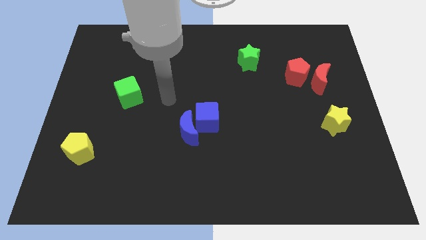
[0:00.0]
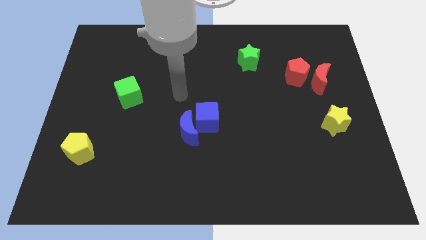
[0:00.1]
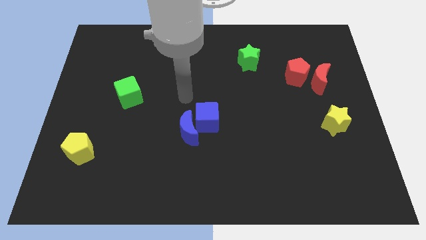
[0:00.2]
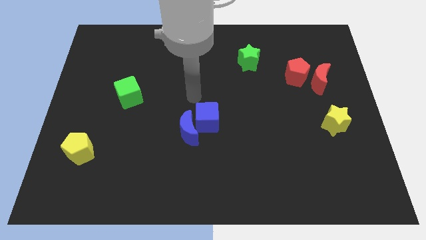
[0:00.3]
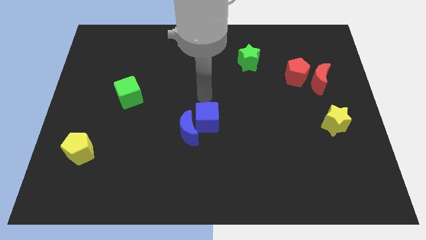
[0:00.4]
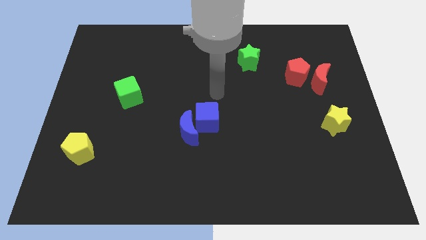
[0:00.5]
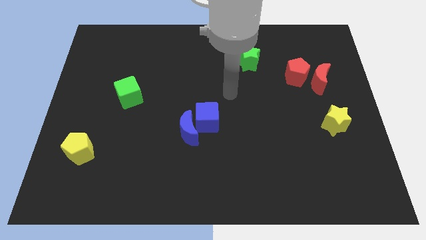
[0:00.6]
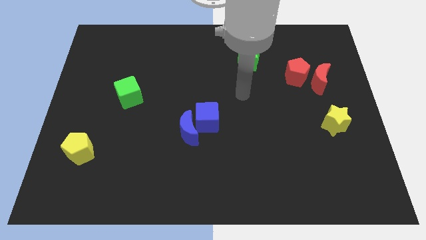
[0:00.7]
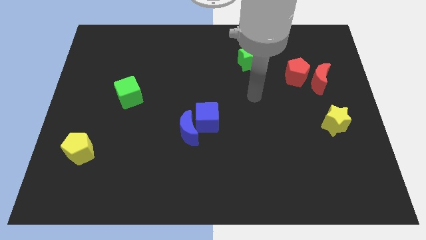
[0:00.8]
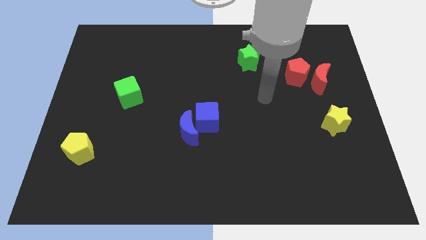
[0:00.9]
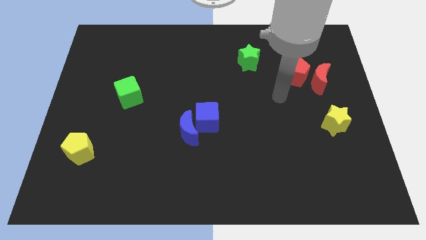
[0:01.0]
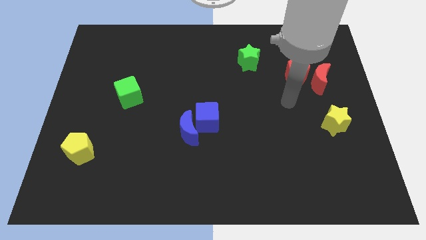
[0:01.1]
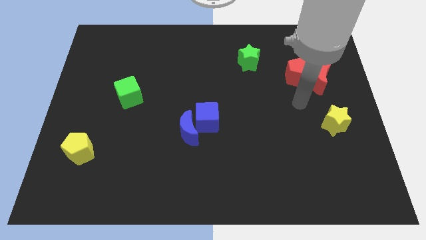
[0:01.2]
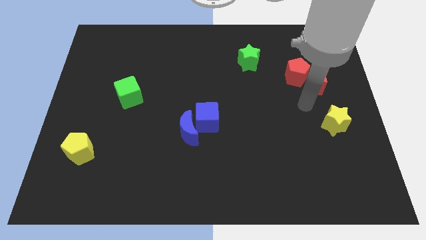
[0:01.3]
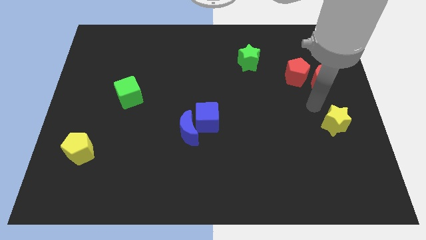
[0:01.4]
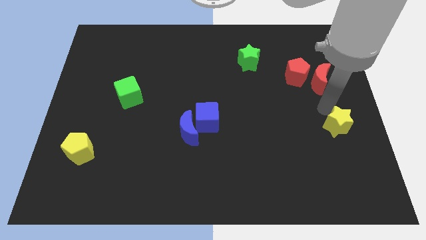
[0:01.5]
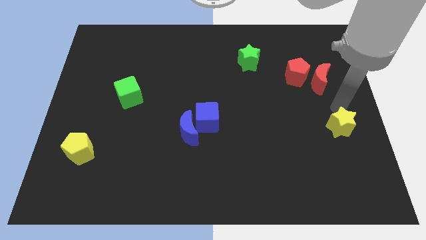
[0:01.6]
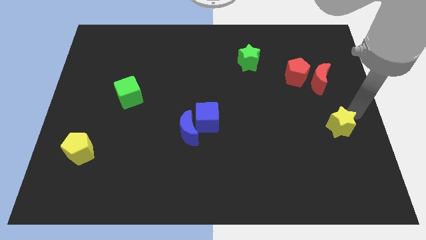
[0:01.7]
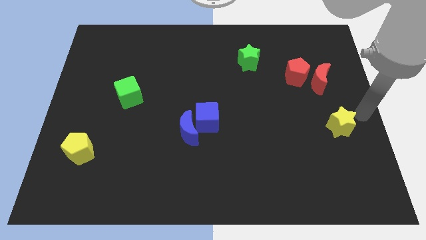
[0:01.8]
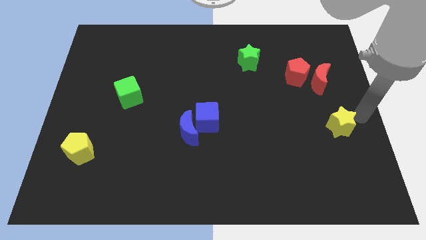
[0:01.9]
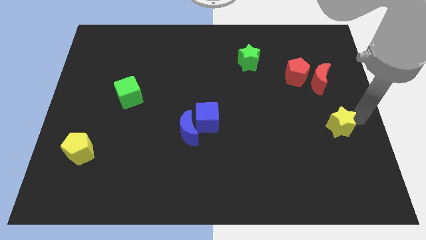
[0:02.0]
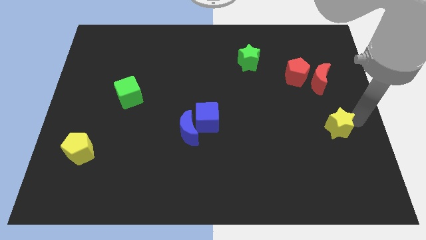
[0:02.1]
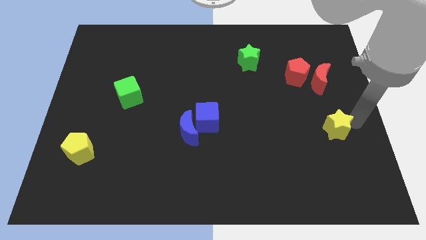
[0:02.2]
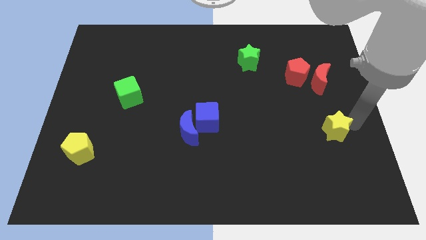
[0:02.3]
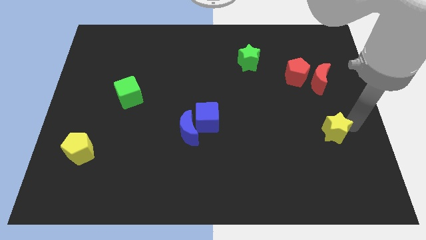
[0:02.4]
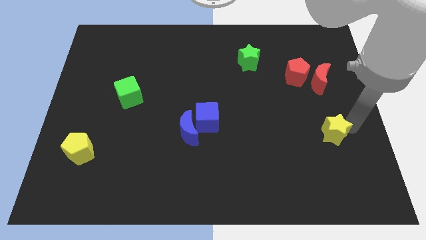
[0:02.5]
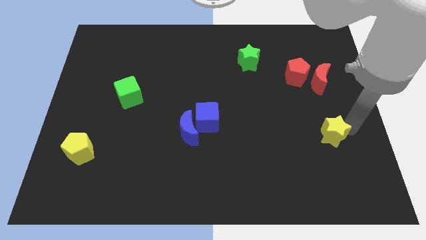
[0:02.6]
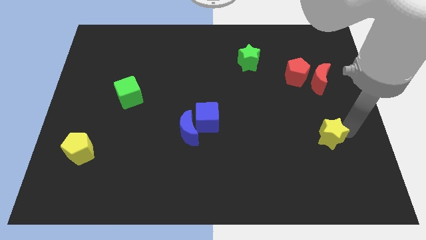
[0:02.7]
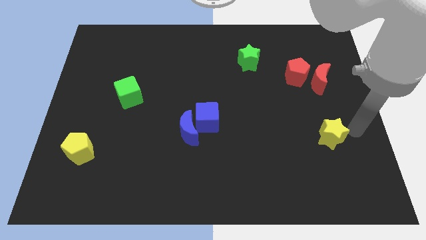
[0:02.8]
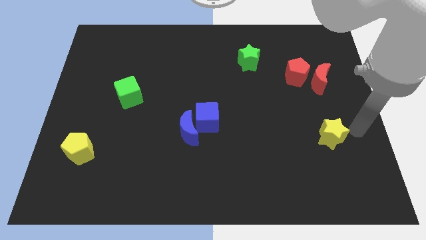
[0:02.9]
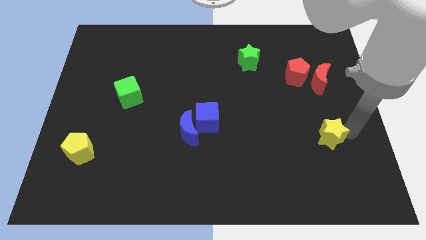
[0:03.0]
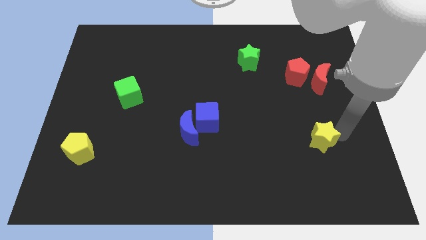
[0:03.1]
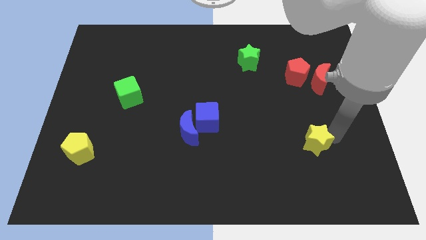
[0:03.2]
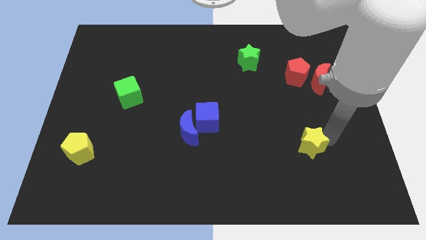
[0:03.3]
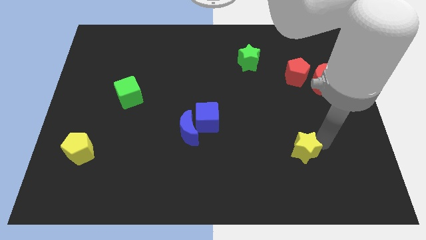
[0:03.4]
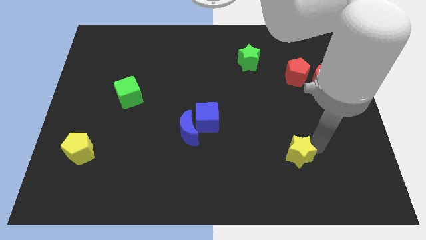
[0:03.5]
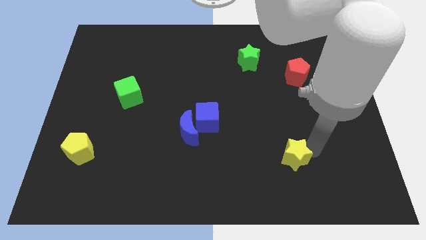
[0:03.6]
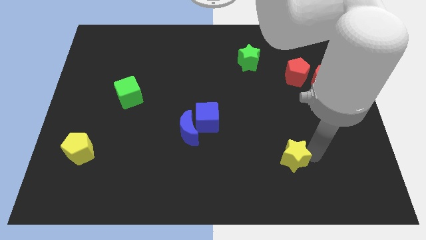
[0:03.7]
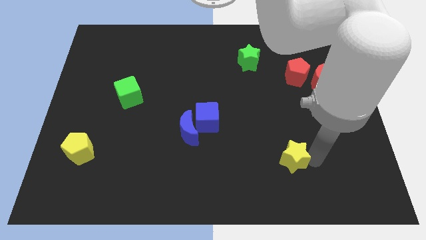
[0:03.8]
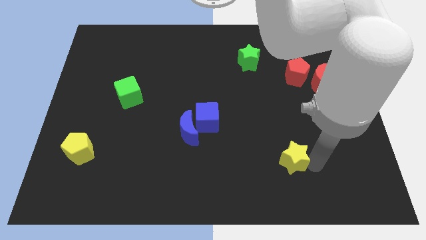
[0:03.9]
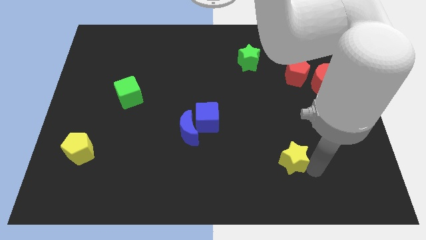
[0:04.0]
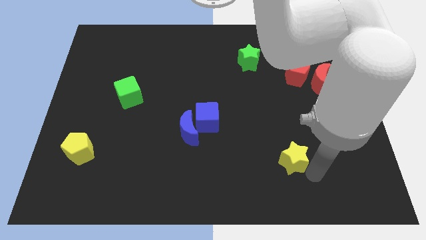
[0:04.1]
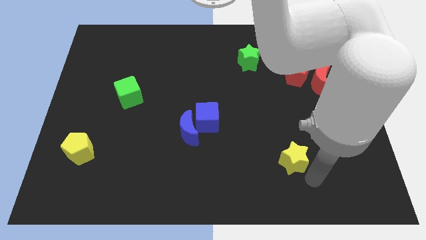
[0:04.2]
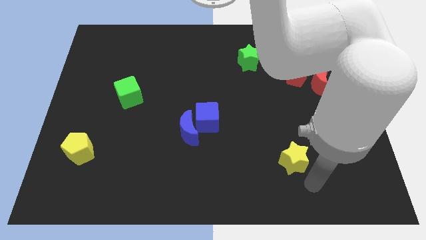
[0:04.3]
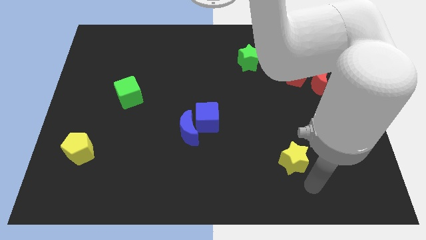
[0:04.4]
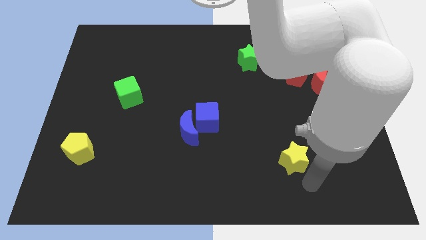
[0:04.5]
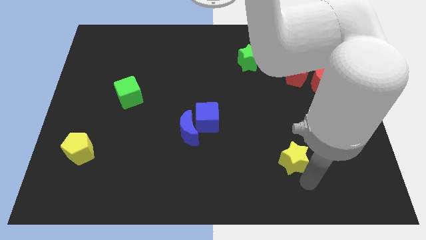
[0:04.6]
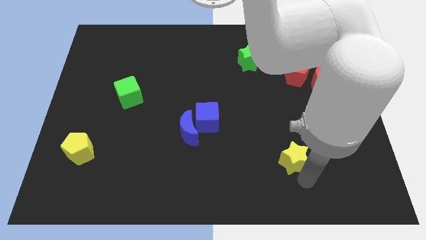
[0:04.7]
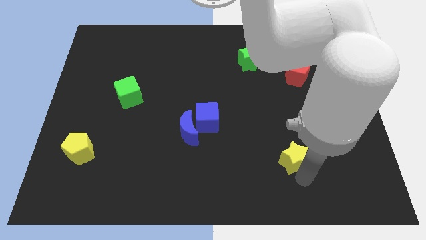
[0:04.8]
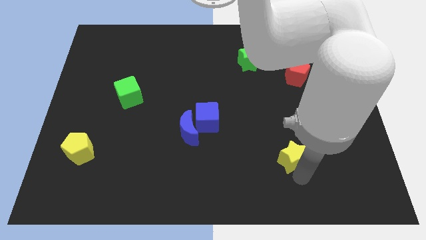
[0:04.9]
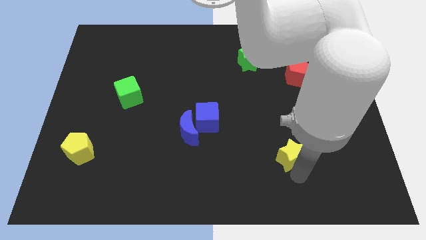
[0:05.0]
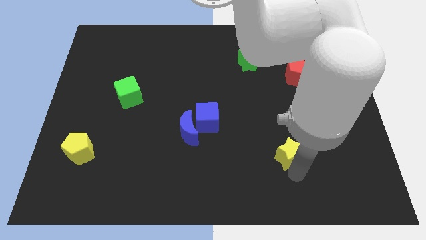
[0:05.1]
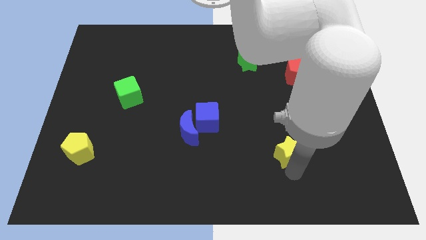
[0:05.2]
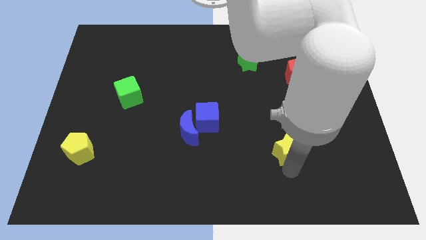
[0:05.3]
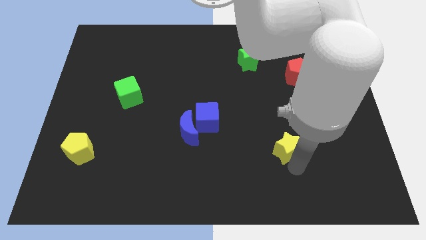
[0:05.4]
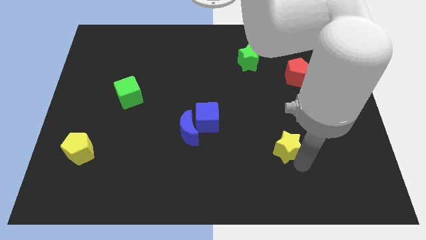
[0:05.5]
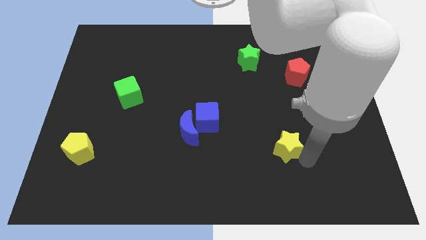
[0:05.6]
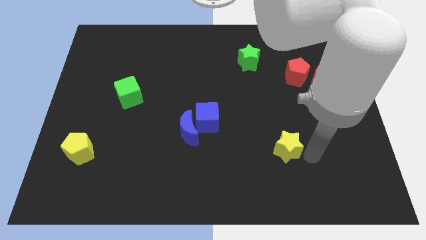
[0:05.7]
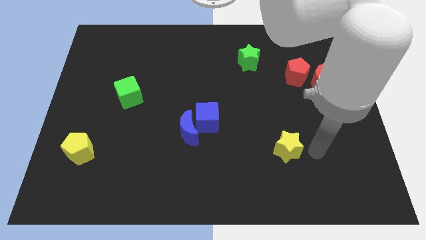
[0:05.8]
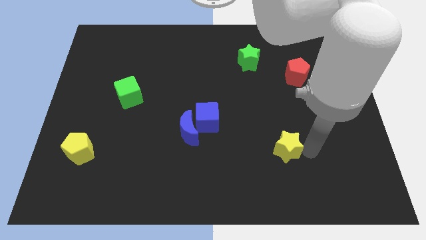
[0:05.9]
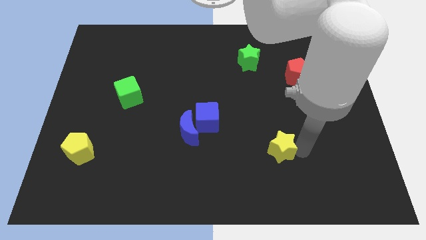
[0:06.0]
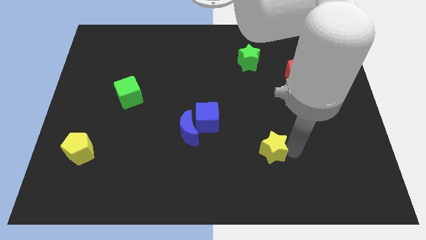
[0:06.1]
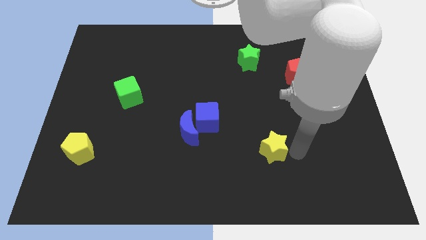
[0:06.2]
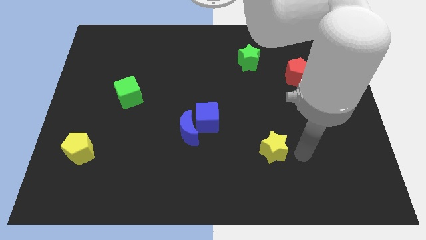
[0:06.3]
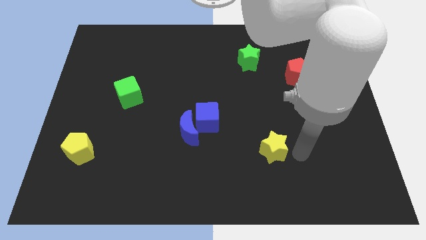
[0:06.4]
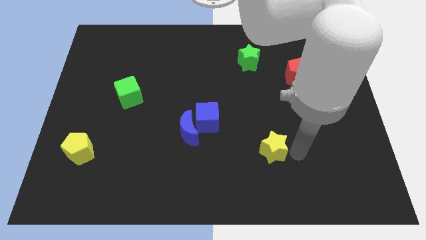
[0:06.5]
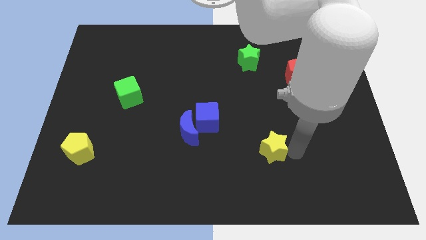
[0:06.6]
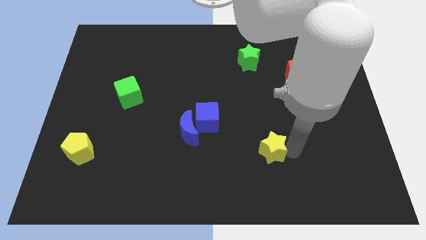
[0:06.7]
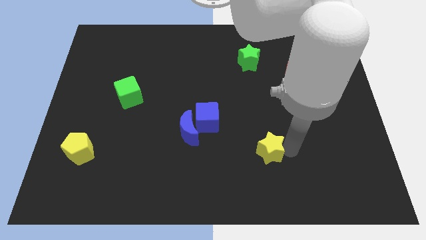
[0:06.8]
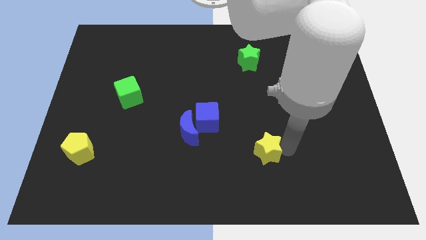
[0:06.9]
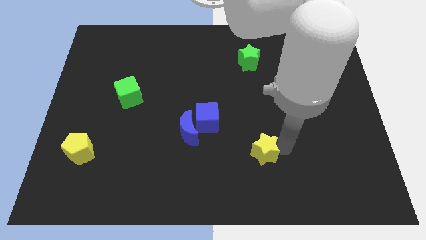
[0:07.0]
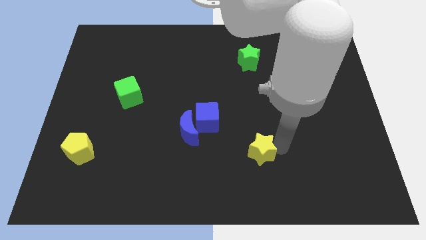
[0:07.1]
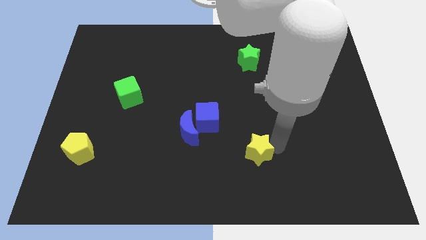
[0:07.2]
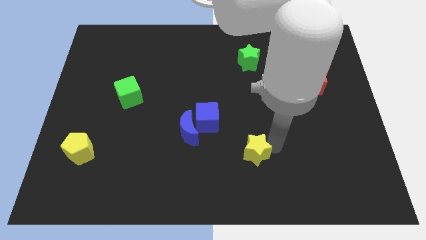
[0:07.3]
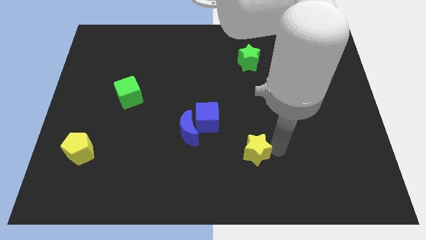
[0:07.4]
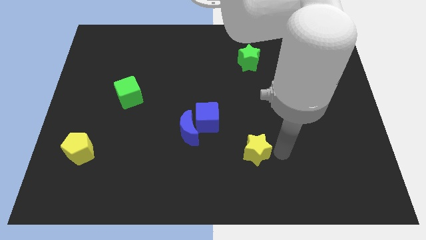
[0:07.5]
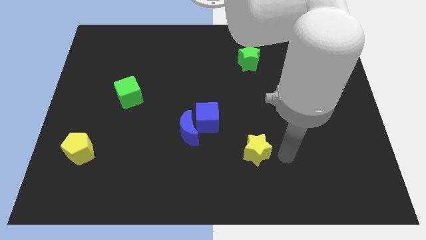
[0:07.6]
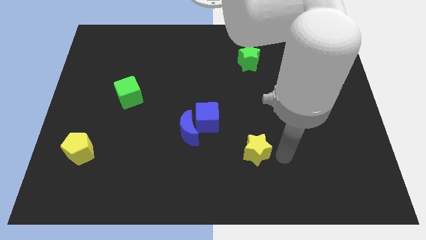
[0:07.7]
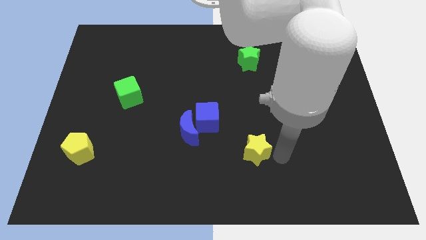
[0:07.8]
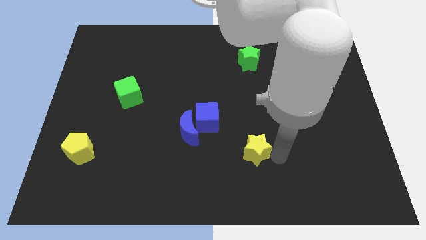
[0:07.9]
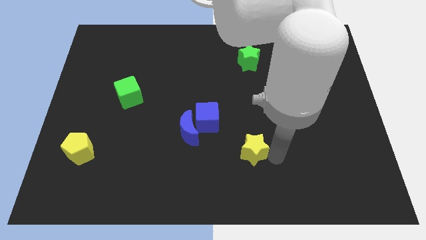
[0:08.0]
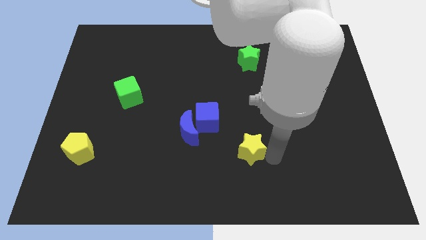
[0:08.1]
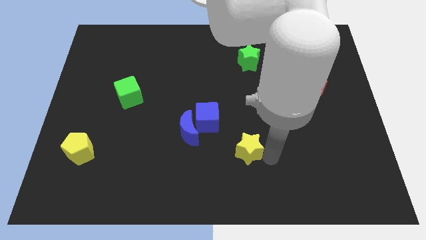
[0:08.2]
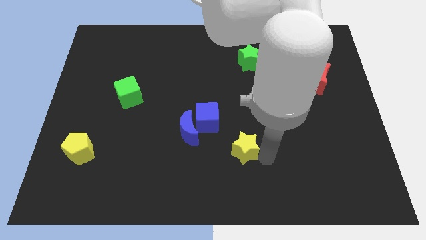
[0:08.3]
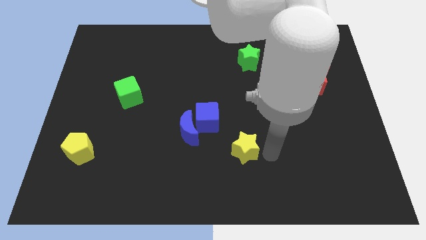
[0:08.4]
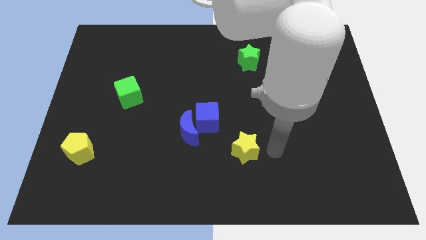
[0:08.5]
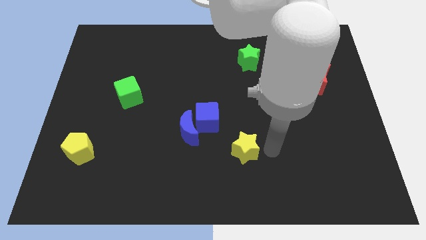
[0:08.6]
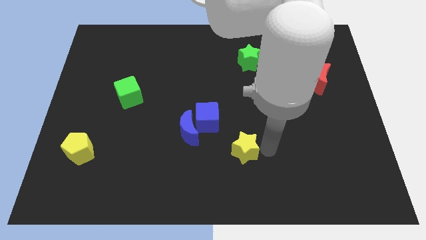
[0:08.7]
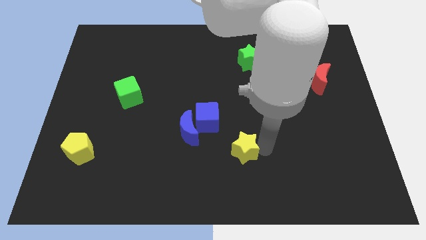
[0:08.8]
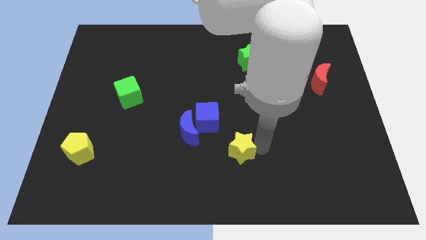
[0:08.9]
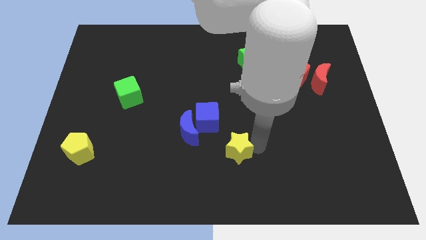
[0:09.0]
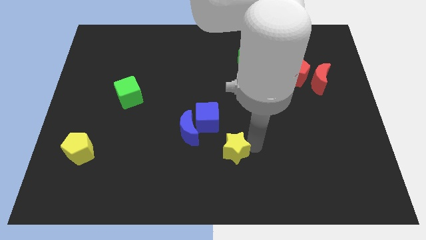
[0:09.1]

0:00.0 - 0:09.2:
slide the yellow star to the bottom right of the blue moon
